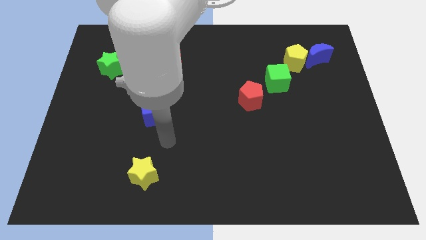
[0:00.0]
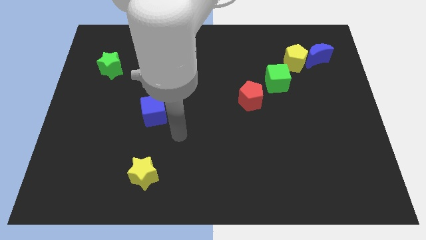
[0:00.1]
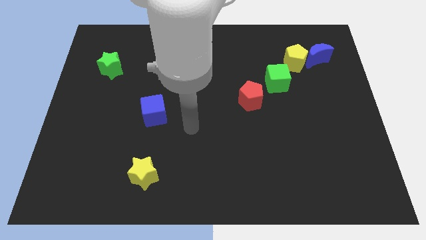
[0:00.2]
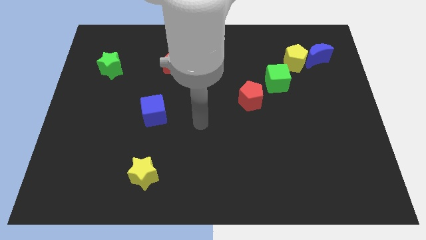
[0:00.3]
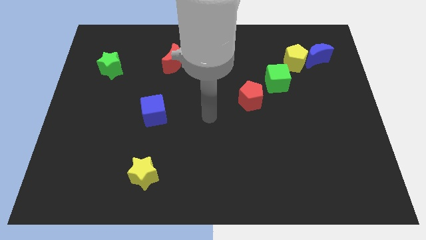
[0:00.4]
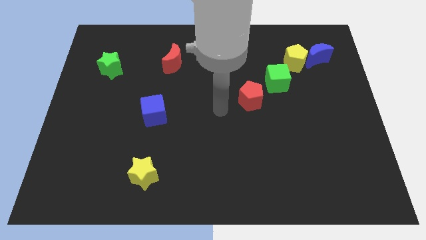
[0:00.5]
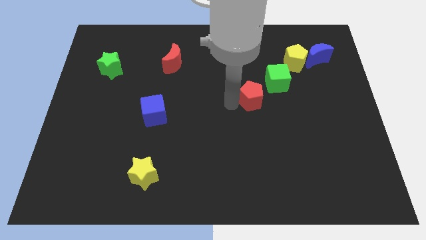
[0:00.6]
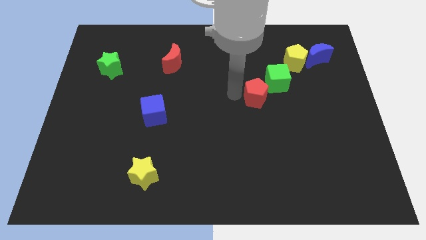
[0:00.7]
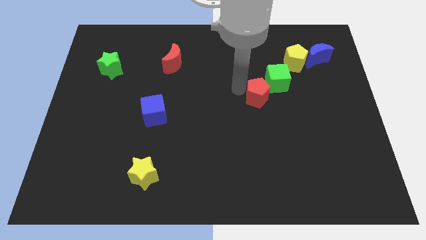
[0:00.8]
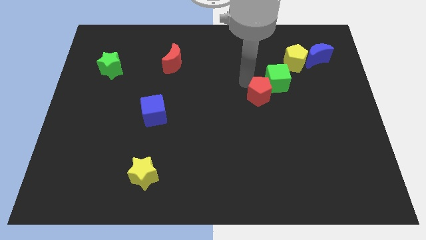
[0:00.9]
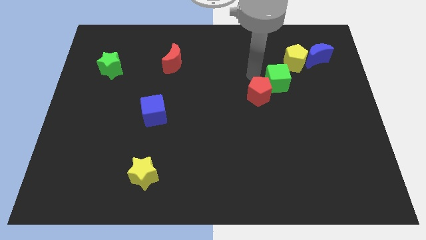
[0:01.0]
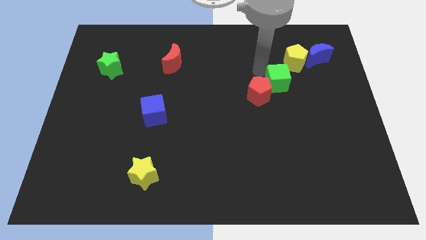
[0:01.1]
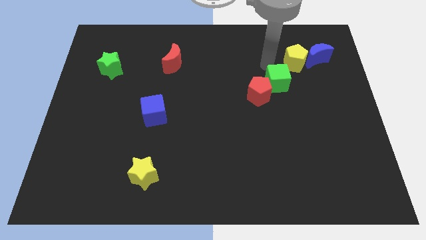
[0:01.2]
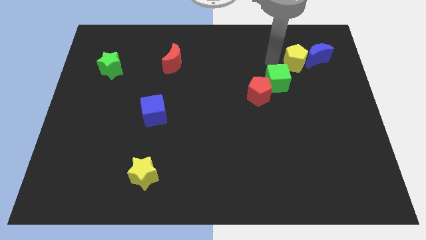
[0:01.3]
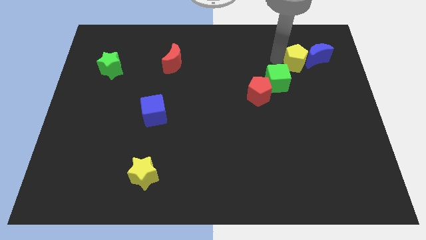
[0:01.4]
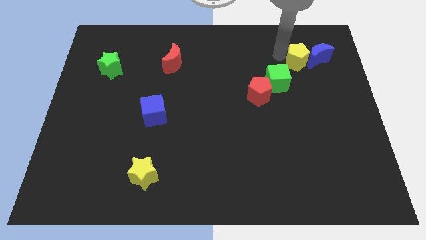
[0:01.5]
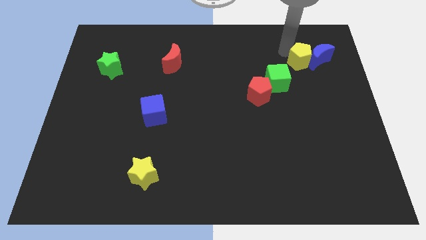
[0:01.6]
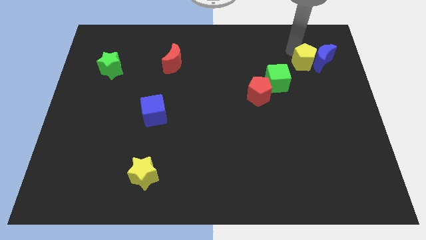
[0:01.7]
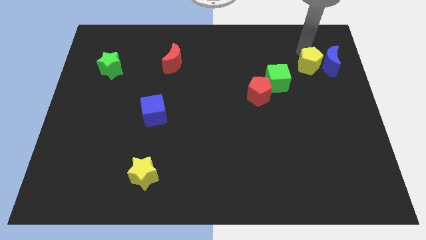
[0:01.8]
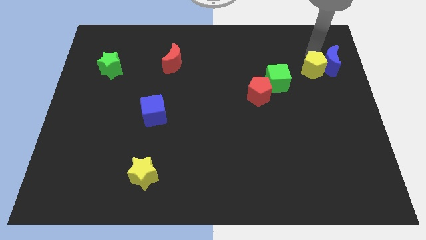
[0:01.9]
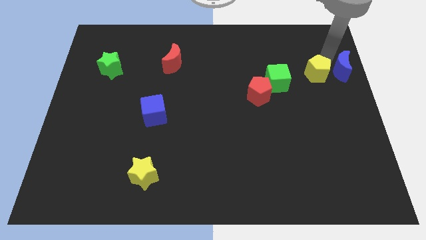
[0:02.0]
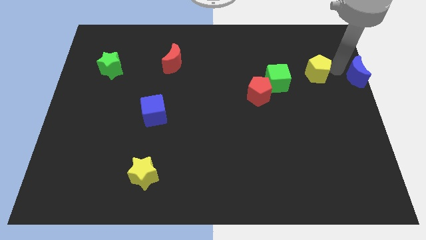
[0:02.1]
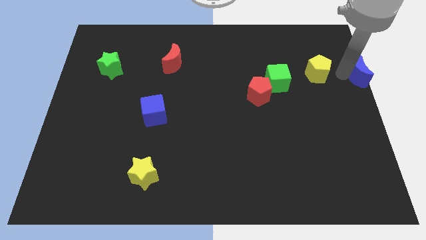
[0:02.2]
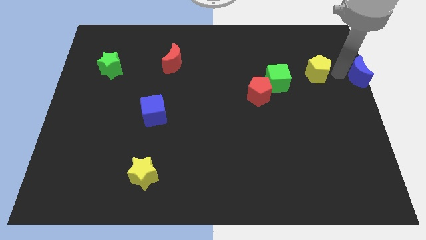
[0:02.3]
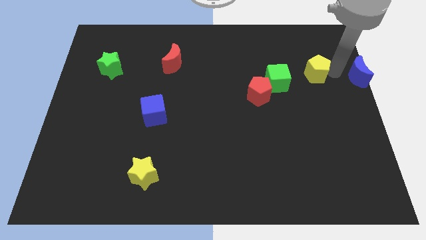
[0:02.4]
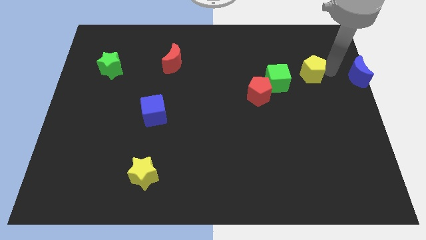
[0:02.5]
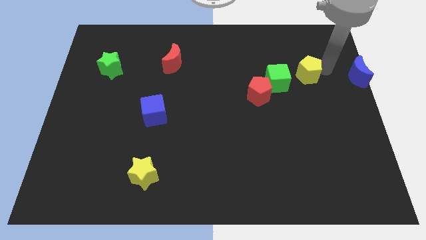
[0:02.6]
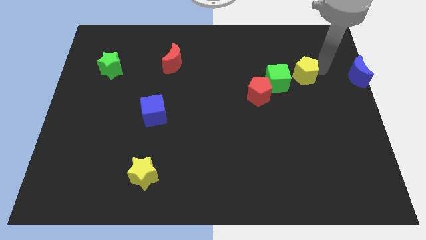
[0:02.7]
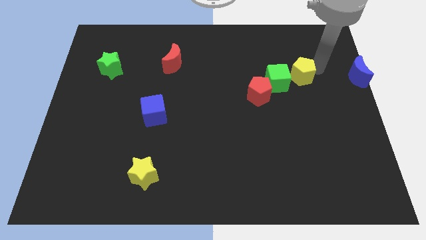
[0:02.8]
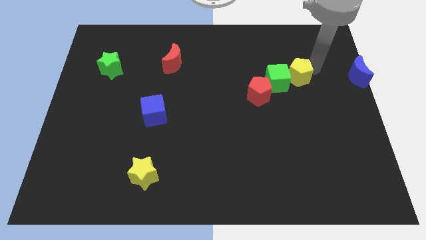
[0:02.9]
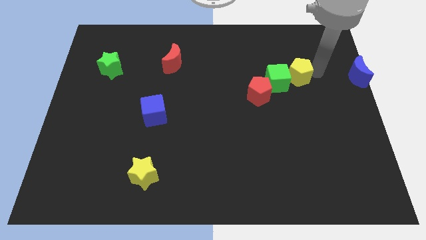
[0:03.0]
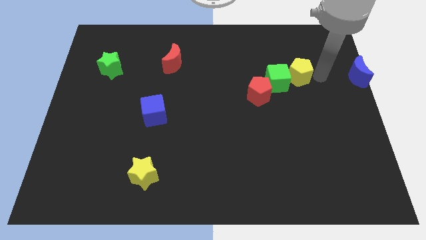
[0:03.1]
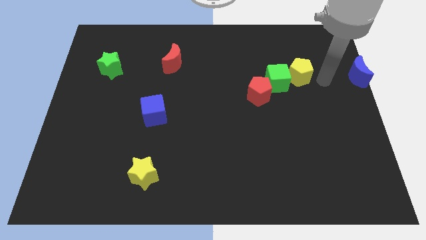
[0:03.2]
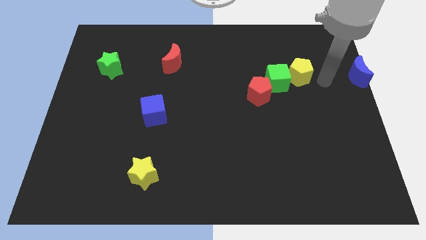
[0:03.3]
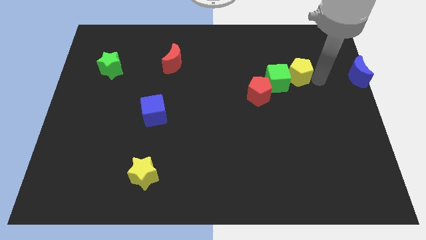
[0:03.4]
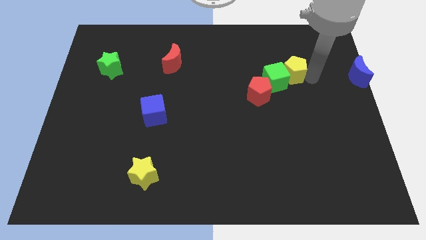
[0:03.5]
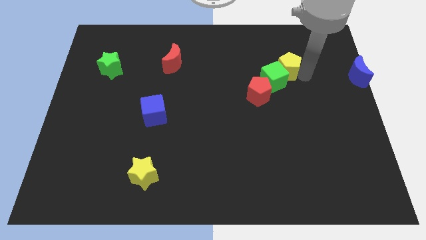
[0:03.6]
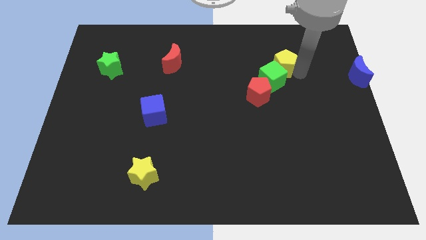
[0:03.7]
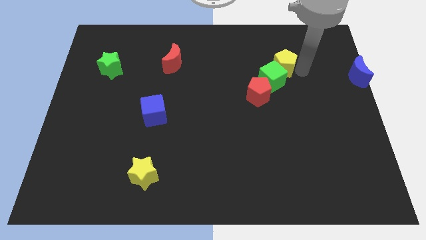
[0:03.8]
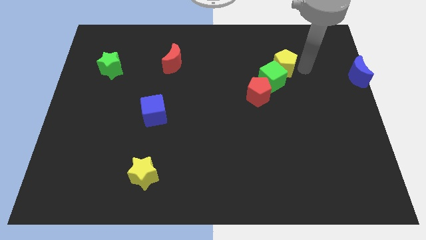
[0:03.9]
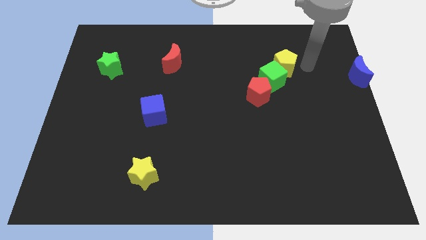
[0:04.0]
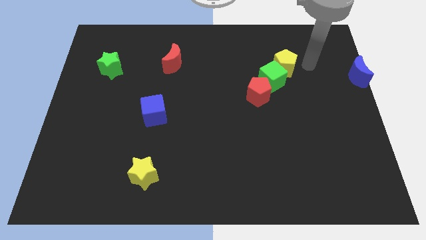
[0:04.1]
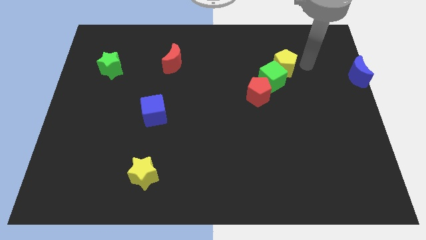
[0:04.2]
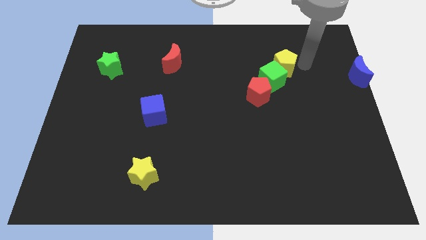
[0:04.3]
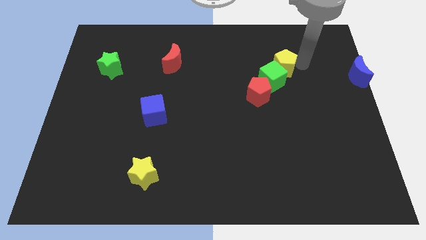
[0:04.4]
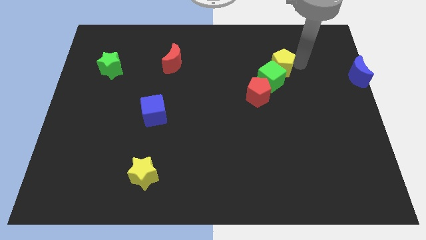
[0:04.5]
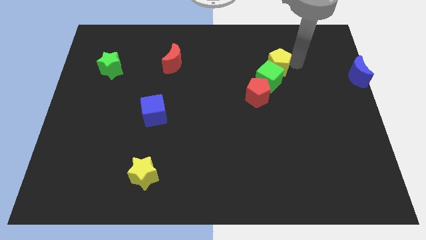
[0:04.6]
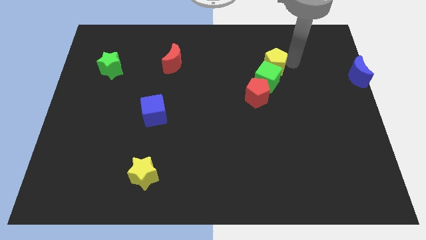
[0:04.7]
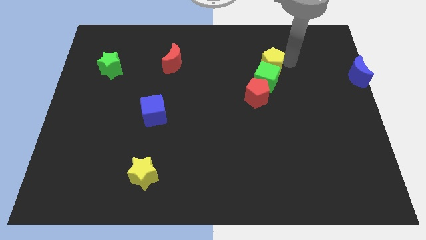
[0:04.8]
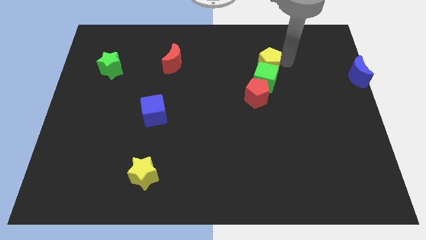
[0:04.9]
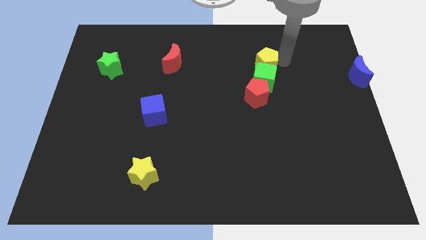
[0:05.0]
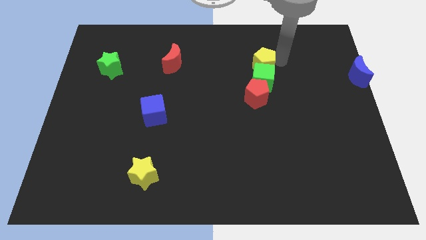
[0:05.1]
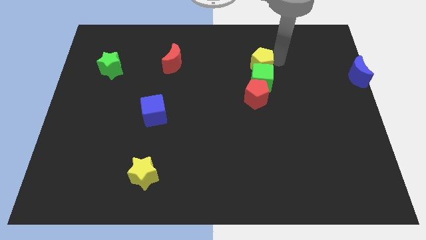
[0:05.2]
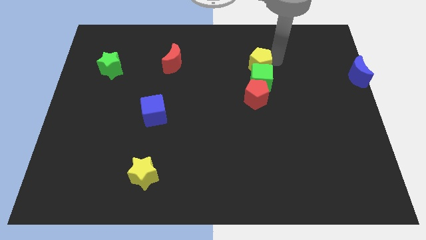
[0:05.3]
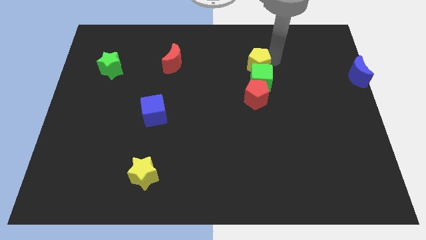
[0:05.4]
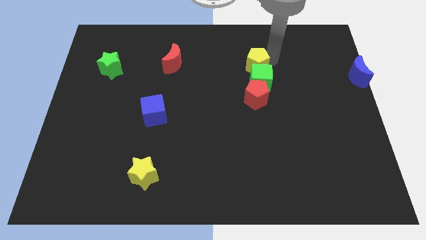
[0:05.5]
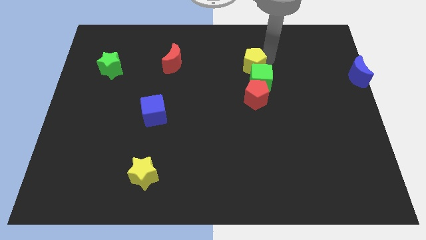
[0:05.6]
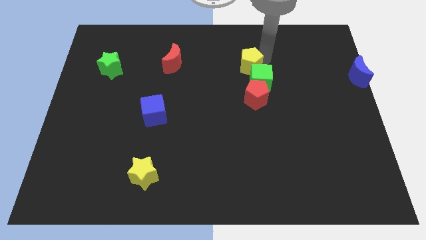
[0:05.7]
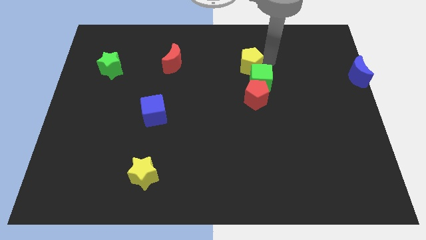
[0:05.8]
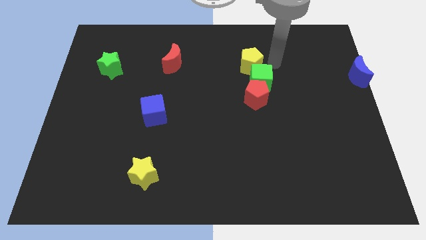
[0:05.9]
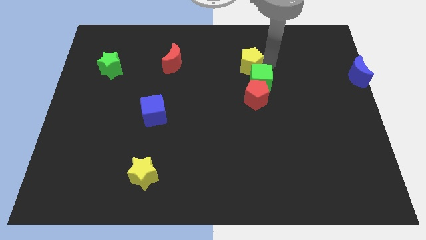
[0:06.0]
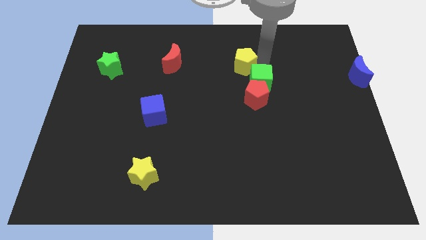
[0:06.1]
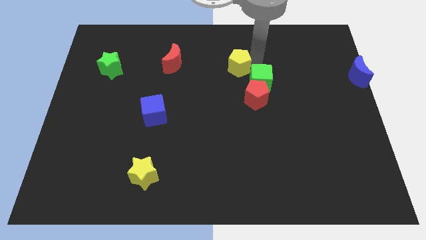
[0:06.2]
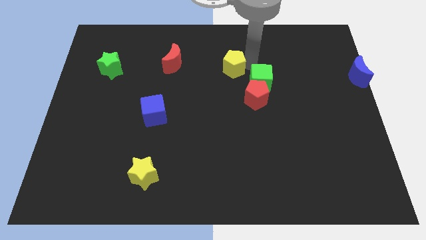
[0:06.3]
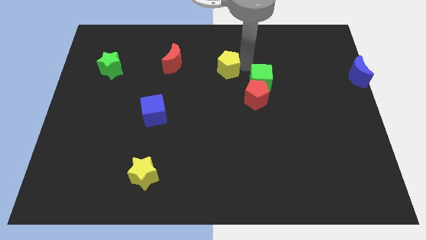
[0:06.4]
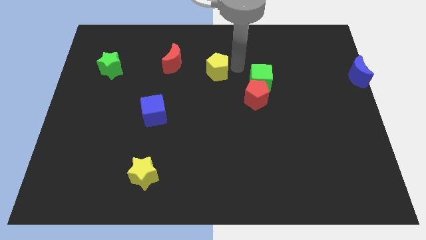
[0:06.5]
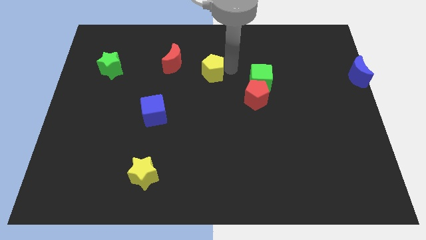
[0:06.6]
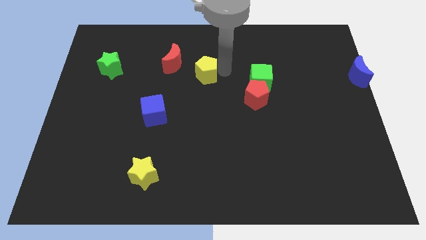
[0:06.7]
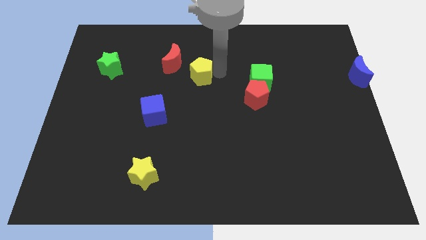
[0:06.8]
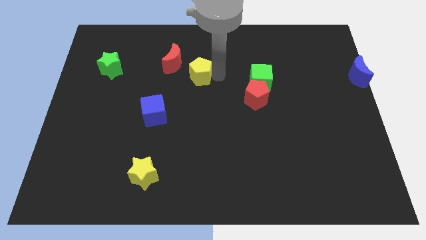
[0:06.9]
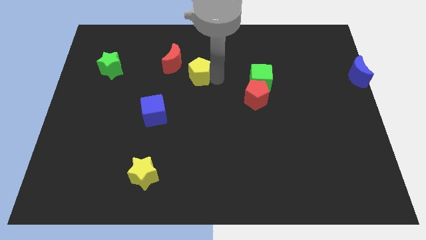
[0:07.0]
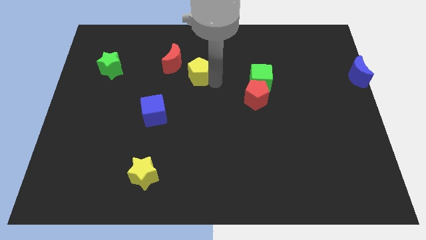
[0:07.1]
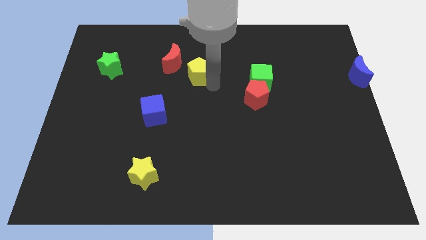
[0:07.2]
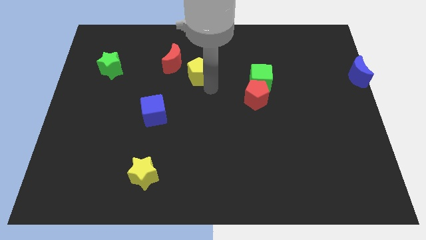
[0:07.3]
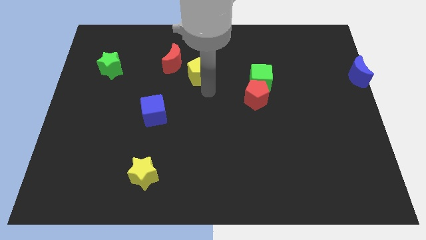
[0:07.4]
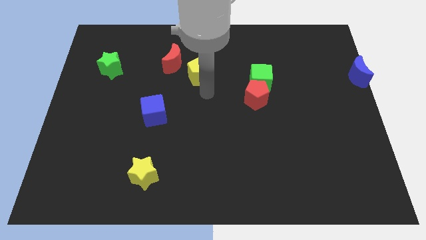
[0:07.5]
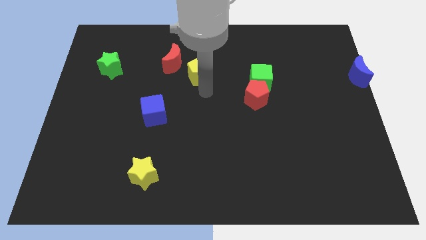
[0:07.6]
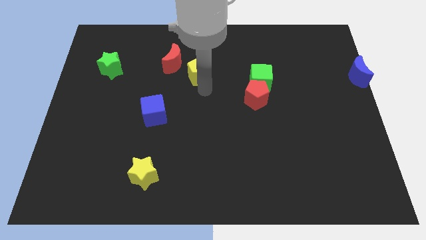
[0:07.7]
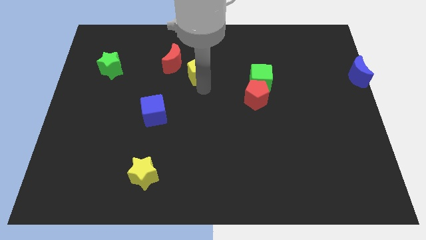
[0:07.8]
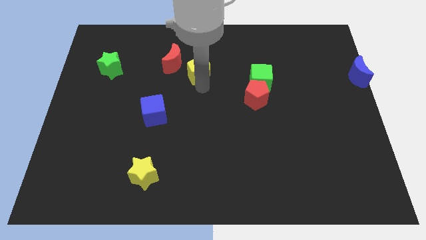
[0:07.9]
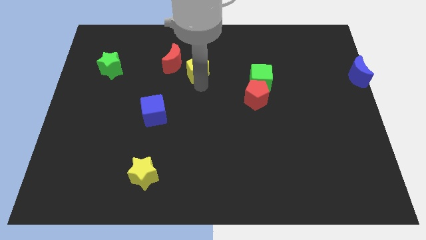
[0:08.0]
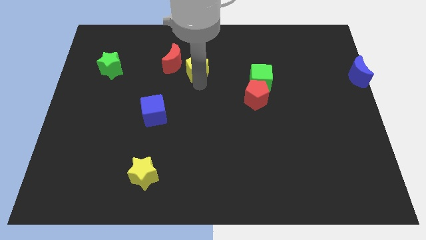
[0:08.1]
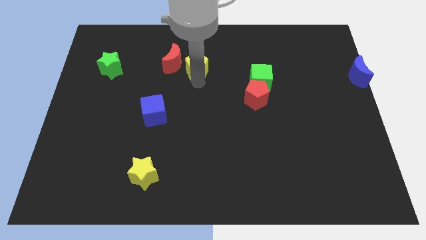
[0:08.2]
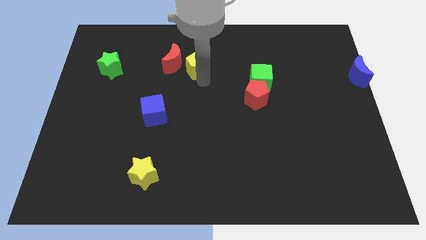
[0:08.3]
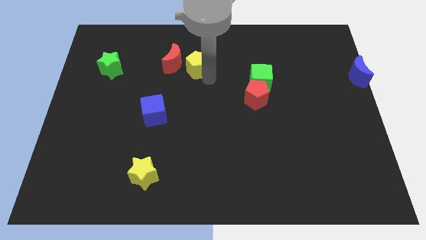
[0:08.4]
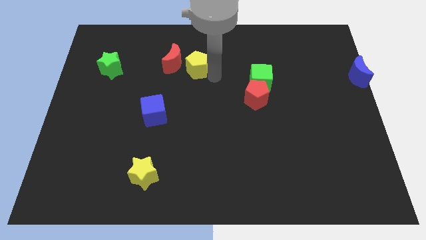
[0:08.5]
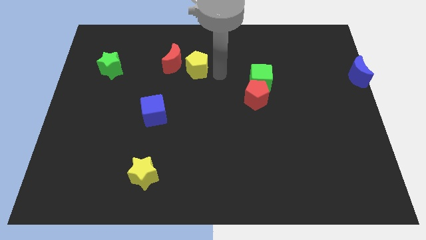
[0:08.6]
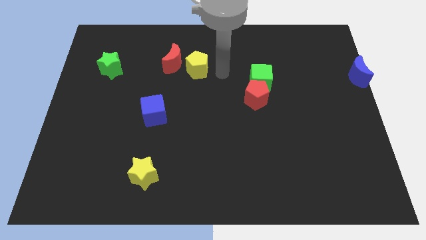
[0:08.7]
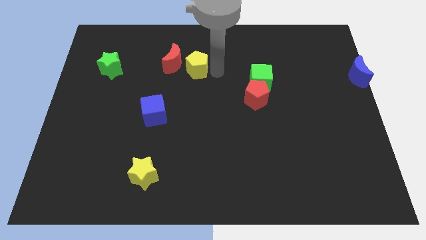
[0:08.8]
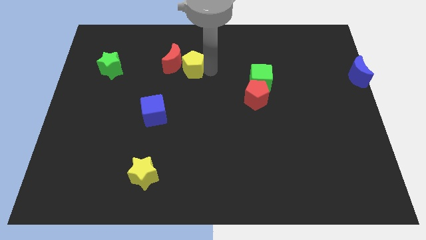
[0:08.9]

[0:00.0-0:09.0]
push the yellow pentagon close to the red moon
